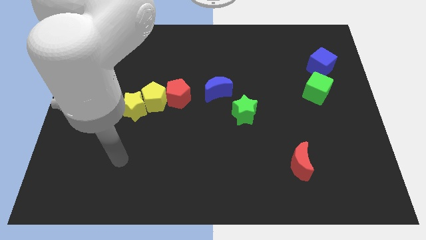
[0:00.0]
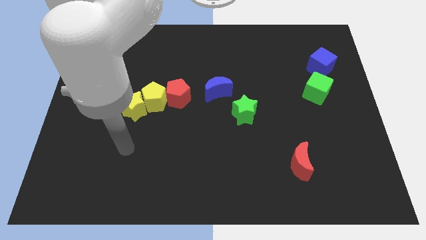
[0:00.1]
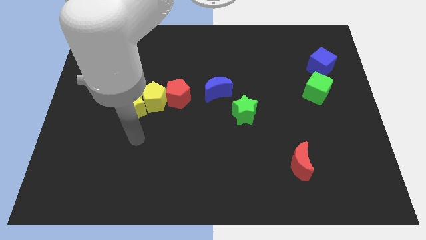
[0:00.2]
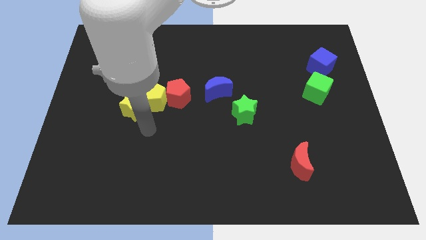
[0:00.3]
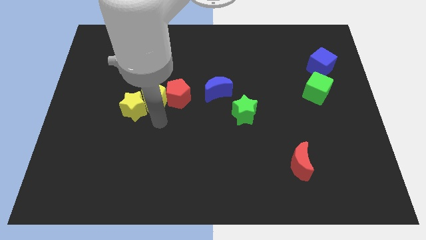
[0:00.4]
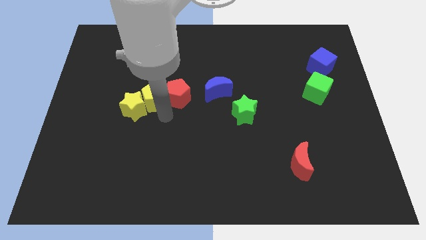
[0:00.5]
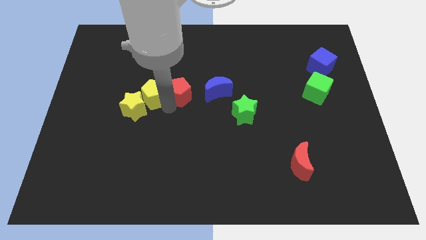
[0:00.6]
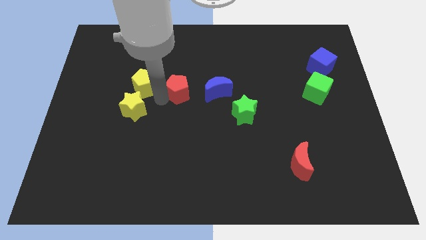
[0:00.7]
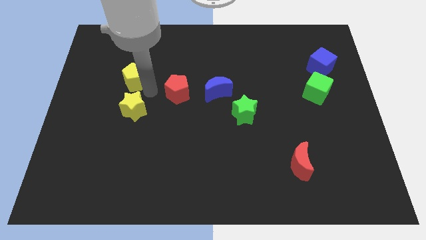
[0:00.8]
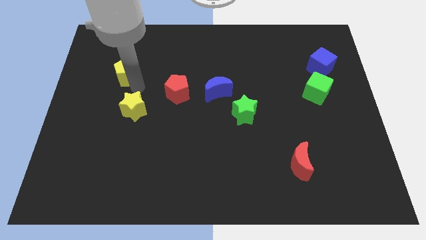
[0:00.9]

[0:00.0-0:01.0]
separate the yellow star from the yellow pentagon

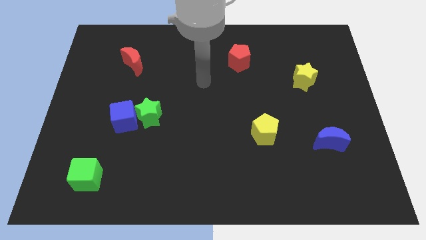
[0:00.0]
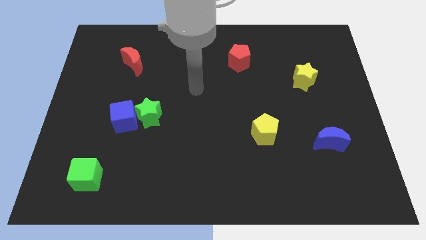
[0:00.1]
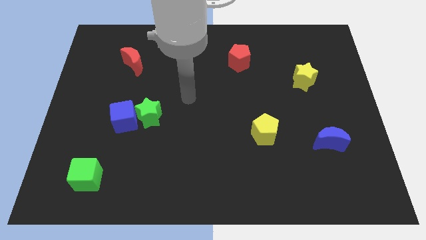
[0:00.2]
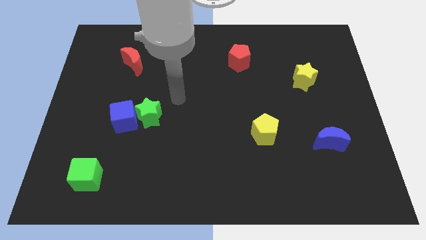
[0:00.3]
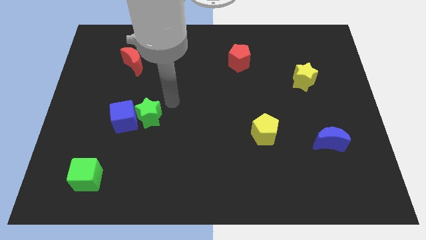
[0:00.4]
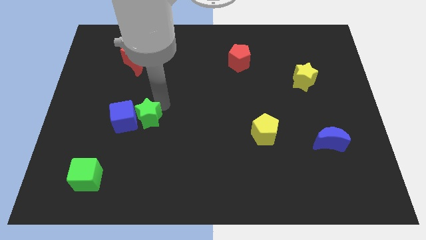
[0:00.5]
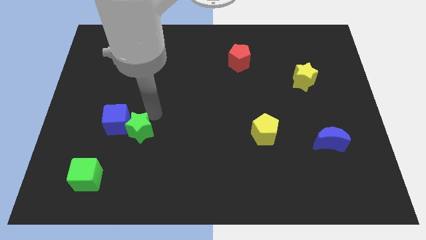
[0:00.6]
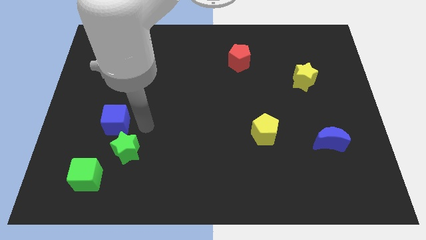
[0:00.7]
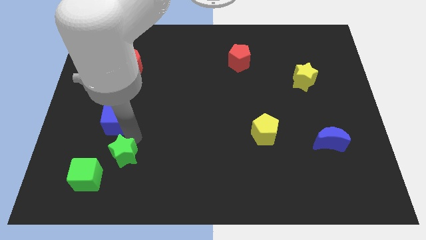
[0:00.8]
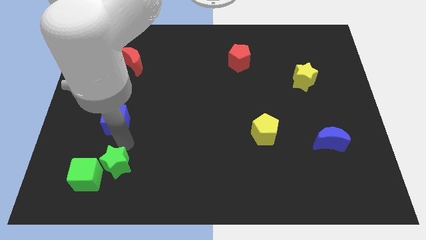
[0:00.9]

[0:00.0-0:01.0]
move the blue cube away from the green star

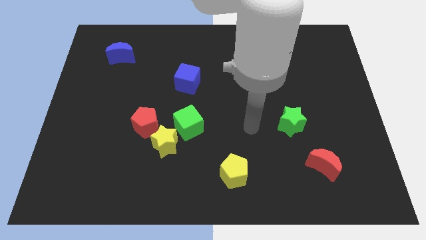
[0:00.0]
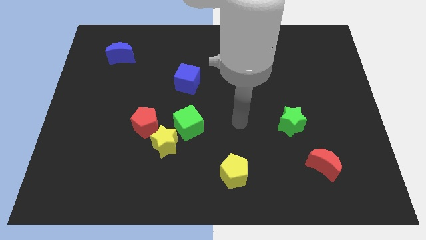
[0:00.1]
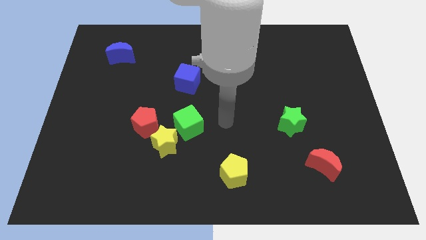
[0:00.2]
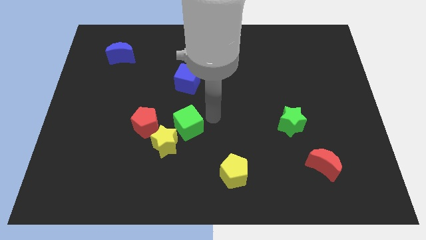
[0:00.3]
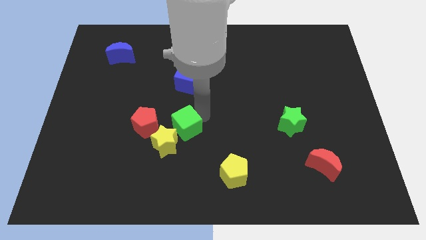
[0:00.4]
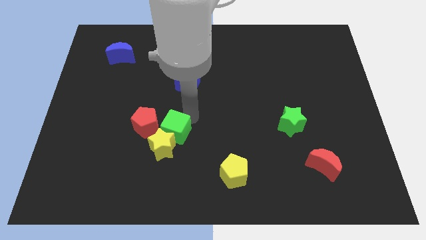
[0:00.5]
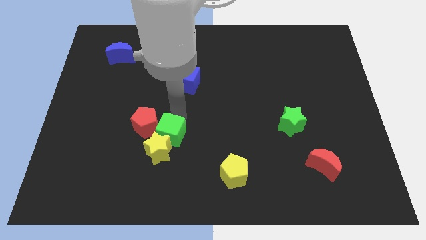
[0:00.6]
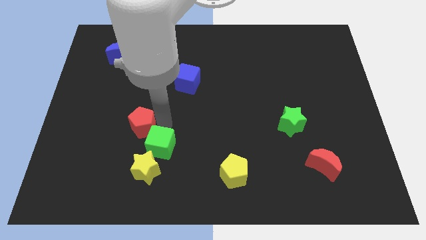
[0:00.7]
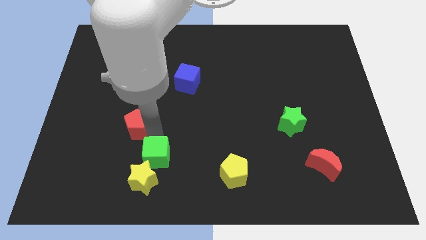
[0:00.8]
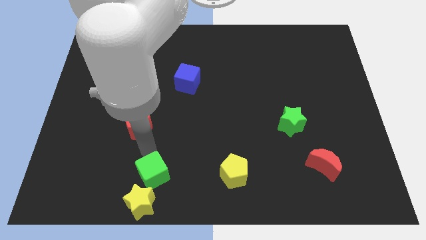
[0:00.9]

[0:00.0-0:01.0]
pull the yellow star apart from the green cube and red pentagon

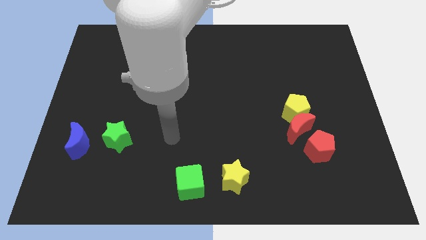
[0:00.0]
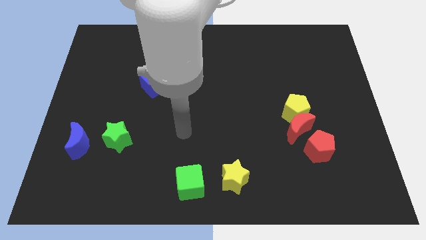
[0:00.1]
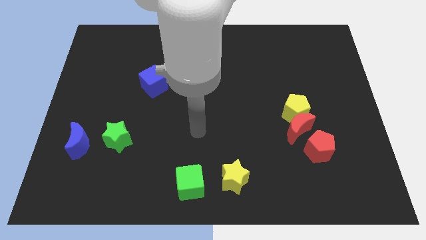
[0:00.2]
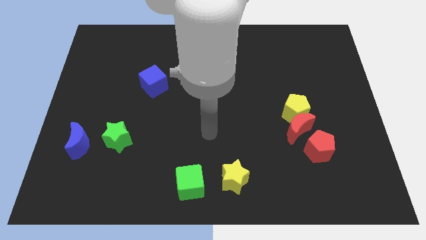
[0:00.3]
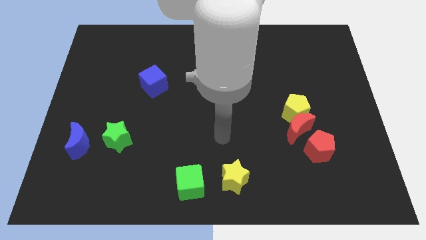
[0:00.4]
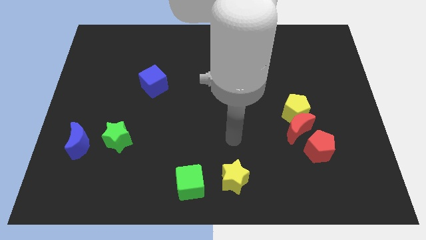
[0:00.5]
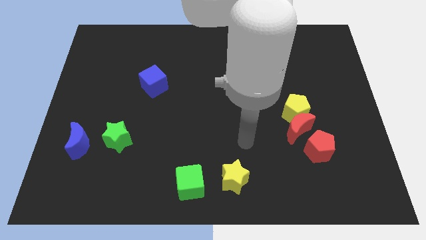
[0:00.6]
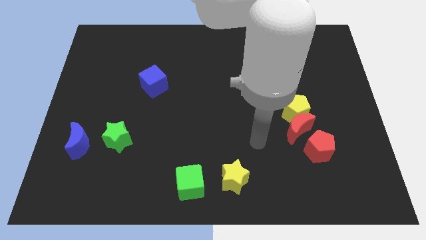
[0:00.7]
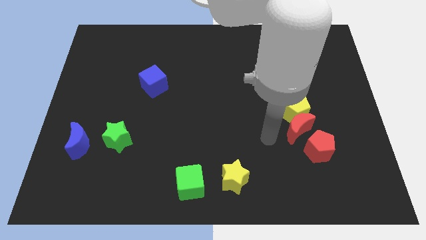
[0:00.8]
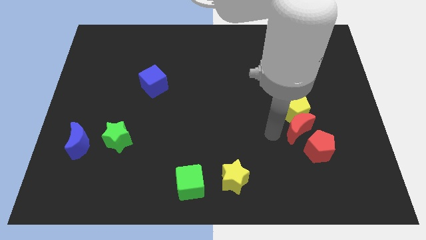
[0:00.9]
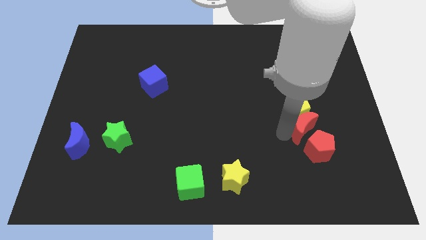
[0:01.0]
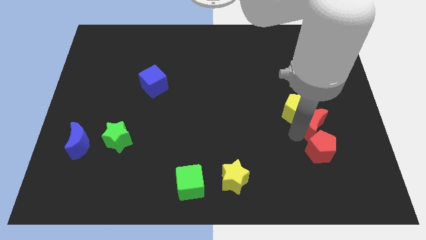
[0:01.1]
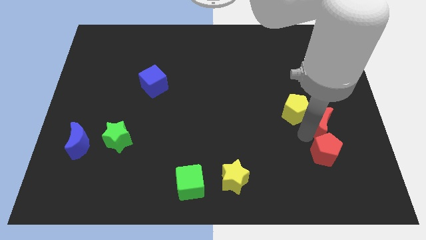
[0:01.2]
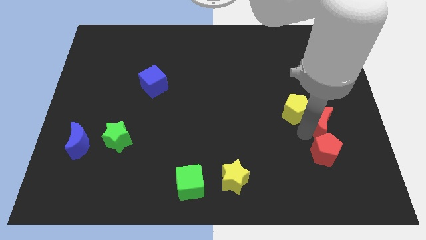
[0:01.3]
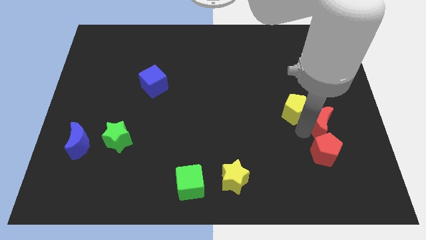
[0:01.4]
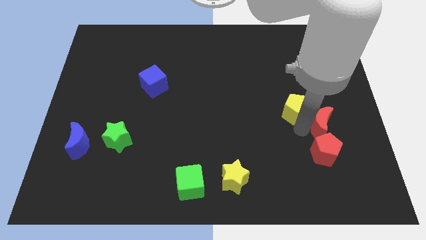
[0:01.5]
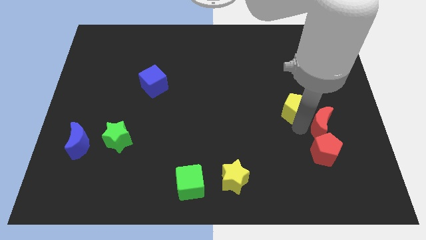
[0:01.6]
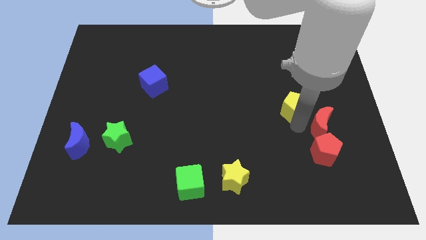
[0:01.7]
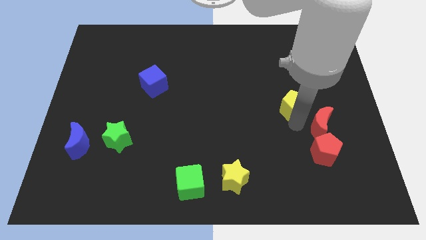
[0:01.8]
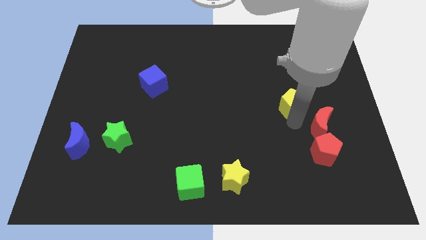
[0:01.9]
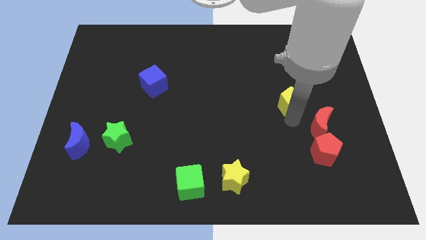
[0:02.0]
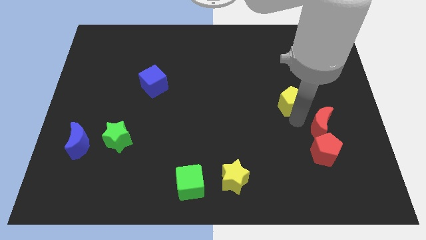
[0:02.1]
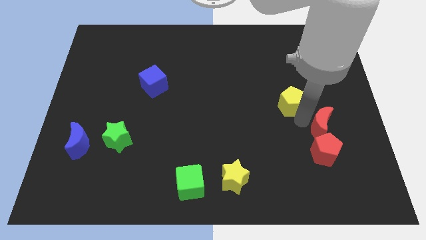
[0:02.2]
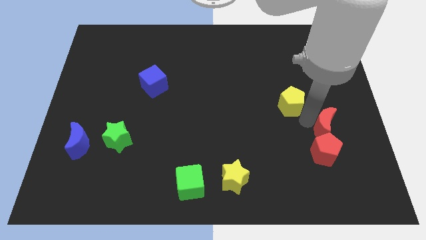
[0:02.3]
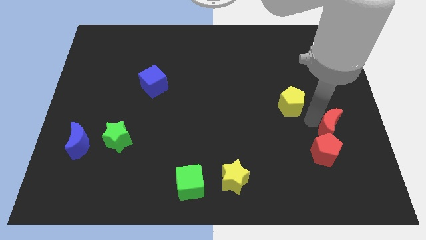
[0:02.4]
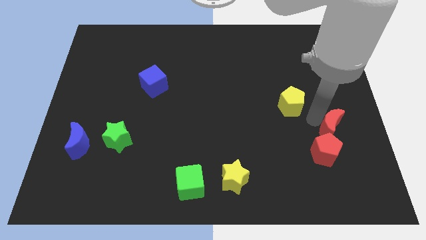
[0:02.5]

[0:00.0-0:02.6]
pull the yellow pentagon apart from the red moon

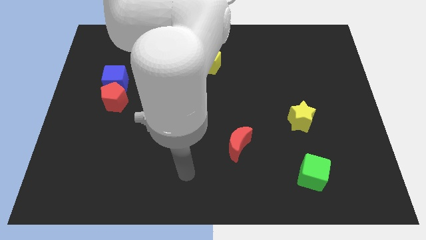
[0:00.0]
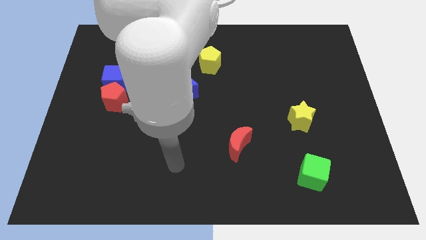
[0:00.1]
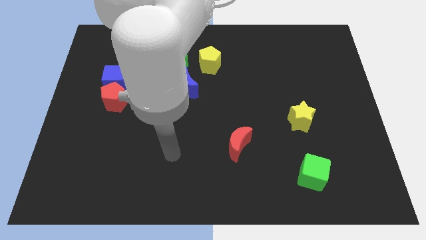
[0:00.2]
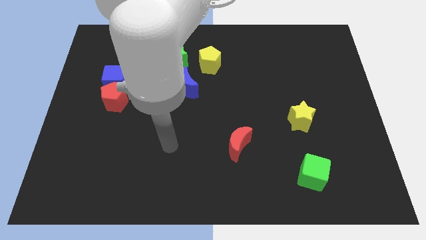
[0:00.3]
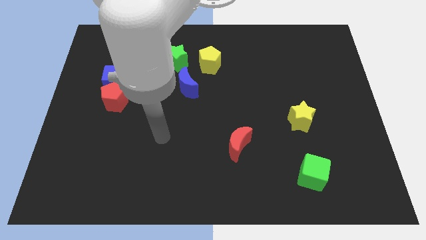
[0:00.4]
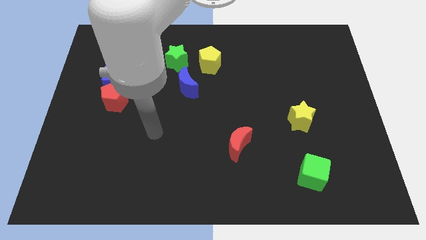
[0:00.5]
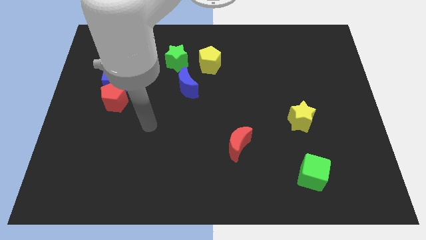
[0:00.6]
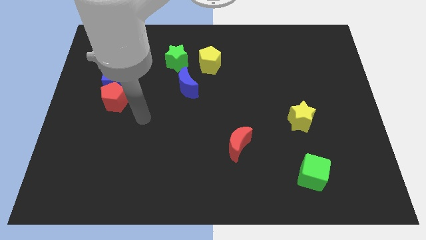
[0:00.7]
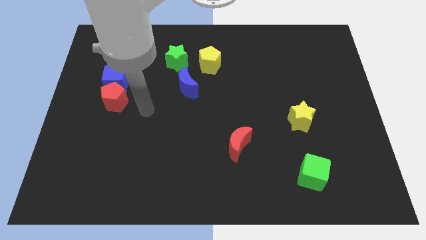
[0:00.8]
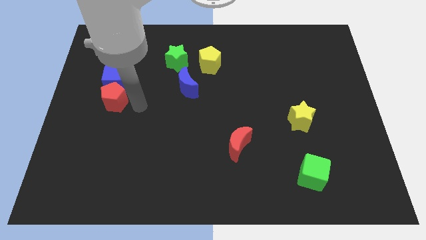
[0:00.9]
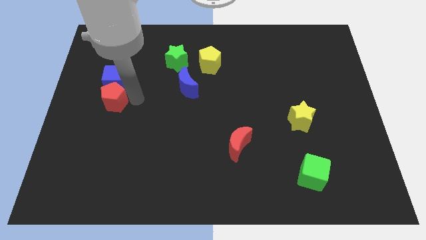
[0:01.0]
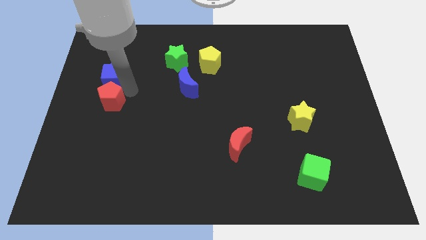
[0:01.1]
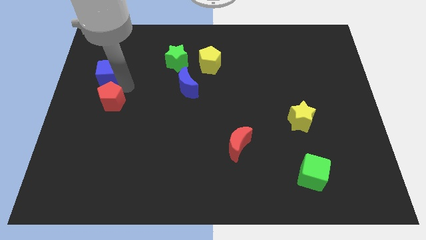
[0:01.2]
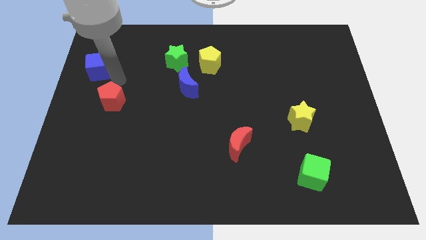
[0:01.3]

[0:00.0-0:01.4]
separate the red pentagon from the blue cube

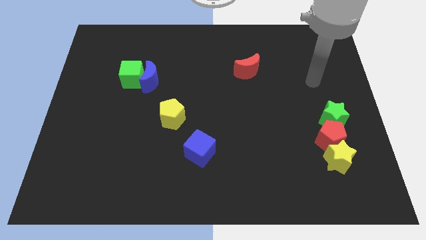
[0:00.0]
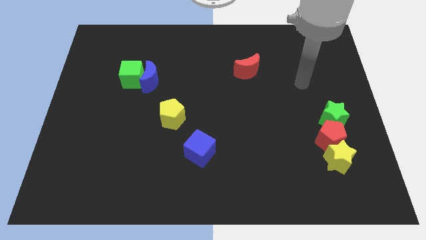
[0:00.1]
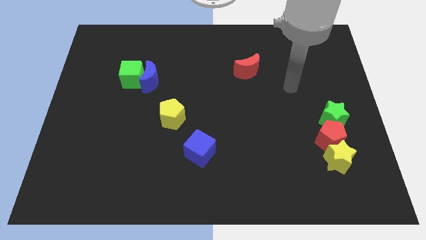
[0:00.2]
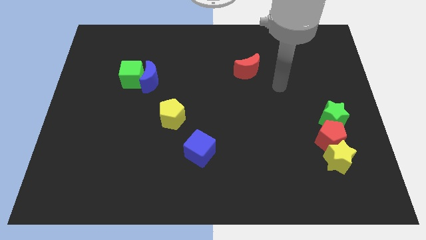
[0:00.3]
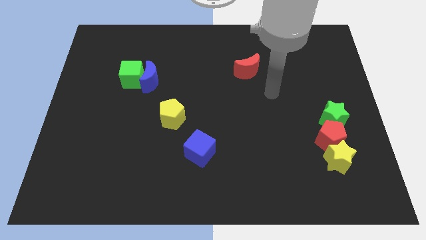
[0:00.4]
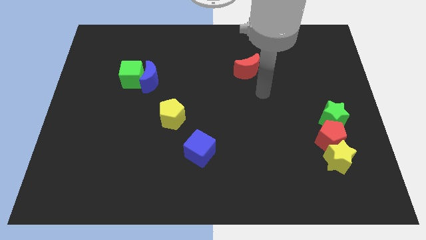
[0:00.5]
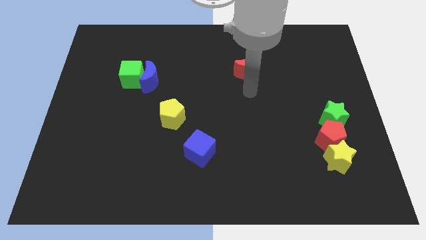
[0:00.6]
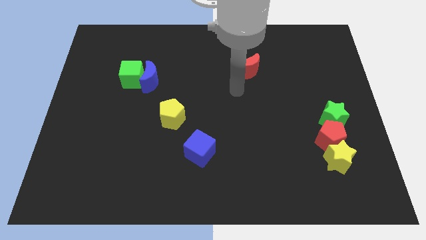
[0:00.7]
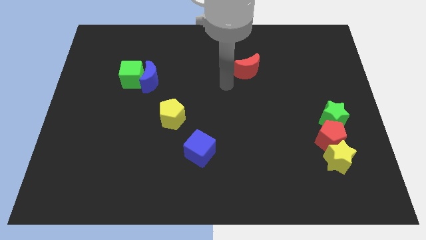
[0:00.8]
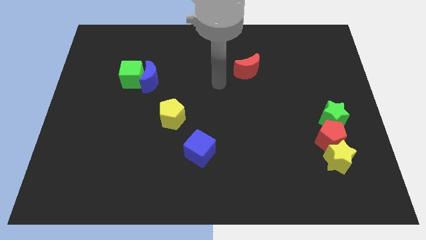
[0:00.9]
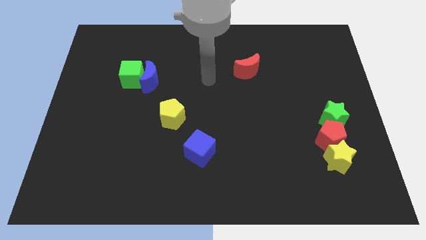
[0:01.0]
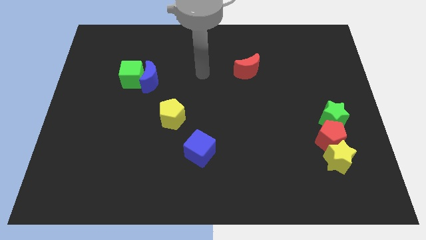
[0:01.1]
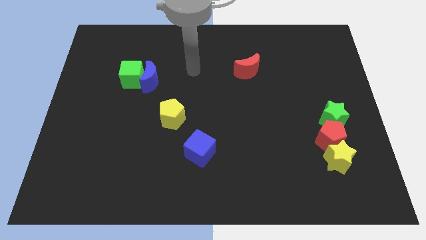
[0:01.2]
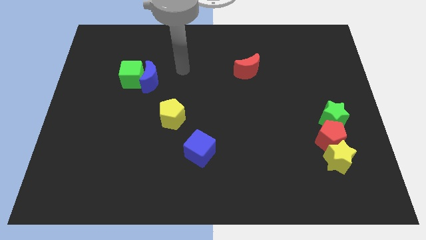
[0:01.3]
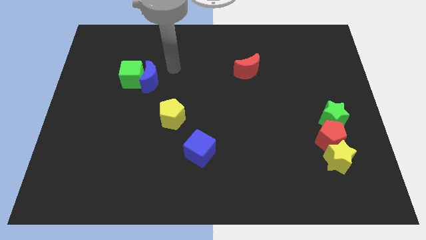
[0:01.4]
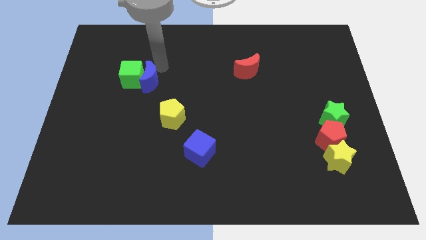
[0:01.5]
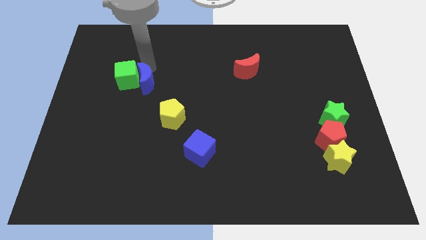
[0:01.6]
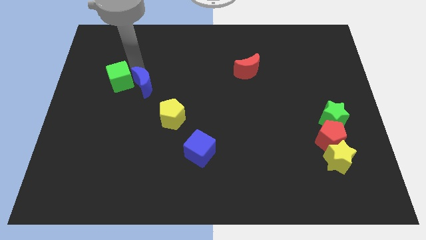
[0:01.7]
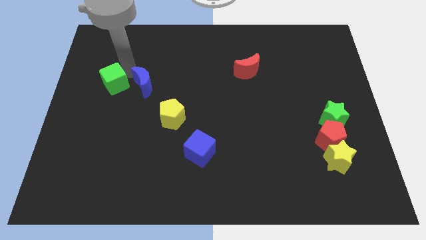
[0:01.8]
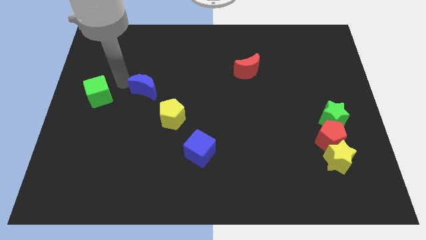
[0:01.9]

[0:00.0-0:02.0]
separate the blue moon from the green cube

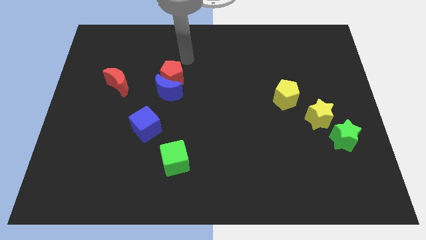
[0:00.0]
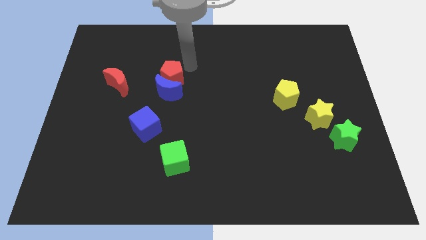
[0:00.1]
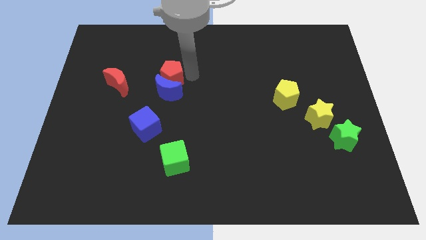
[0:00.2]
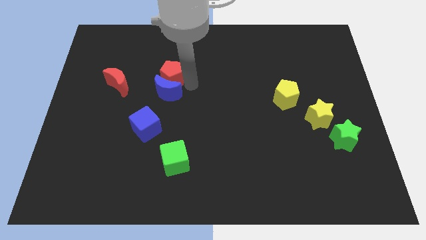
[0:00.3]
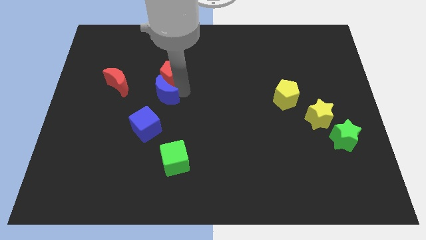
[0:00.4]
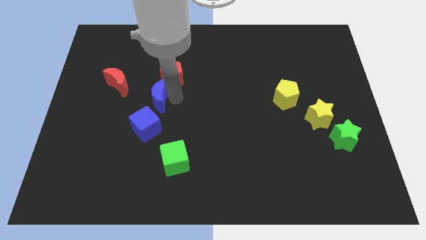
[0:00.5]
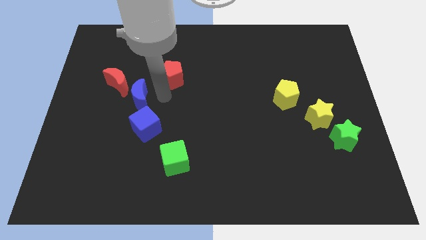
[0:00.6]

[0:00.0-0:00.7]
pull the red pentagon apart from the blue moon
